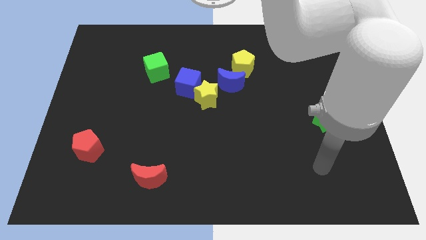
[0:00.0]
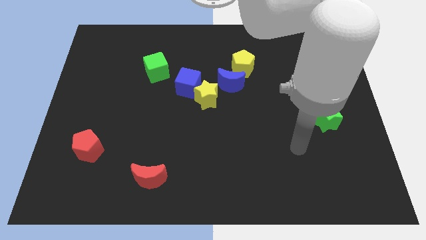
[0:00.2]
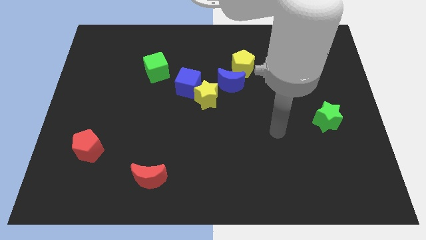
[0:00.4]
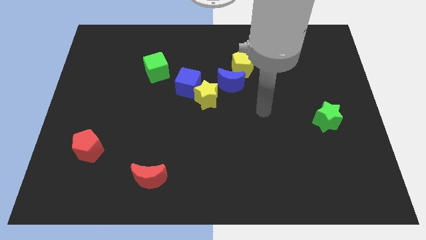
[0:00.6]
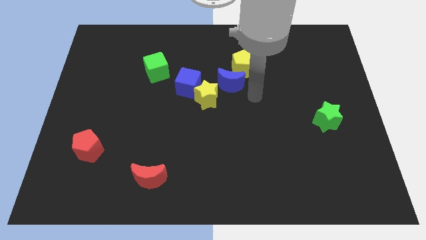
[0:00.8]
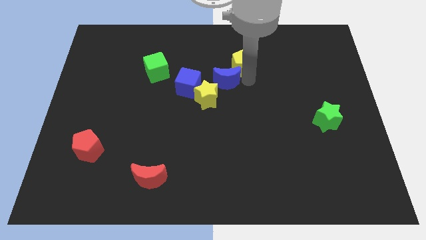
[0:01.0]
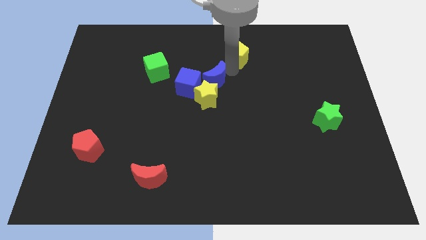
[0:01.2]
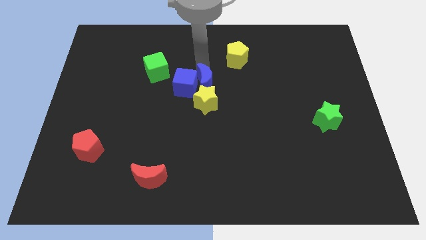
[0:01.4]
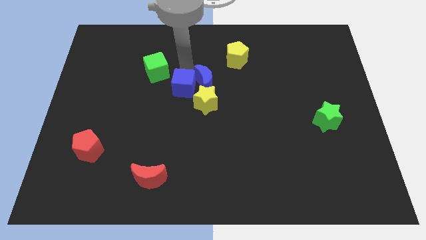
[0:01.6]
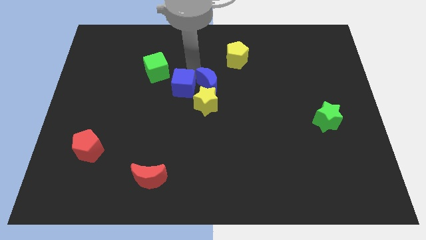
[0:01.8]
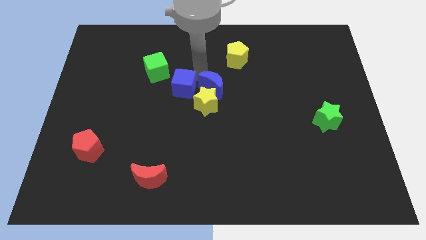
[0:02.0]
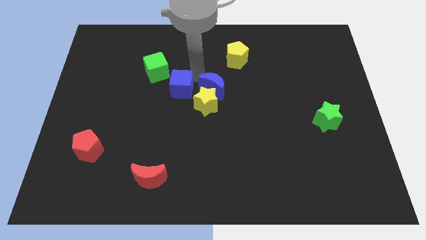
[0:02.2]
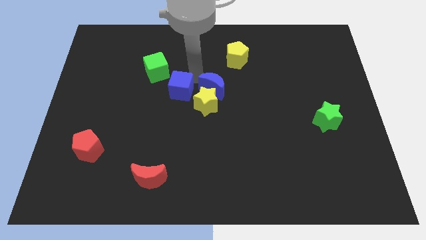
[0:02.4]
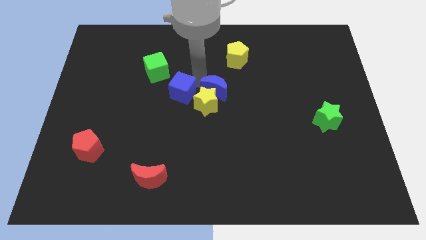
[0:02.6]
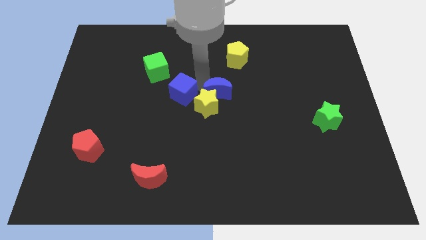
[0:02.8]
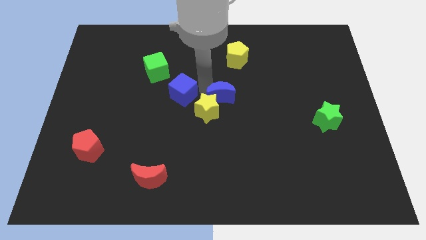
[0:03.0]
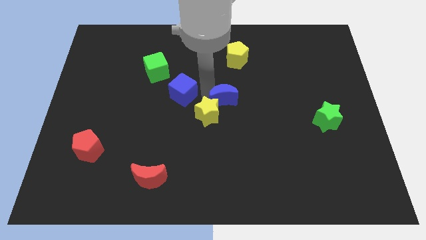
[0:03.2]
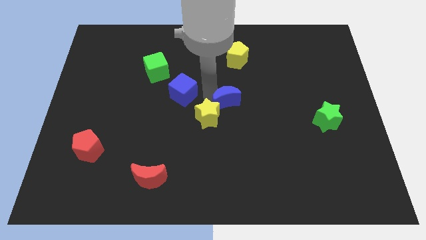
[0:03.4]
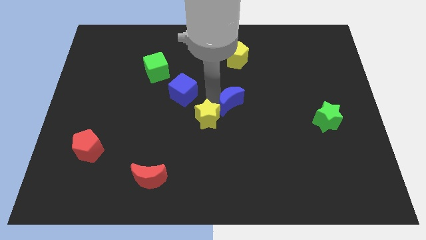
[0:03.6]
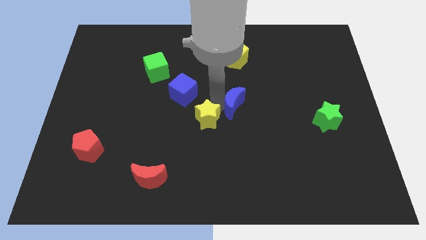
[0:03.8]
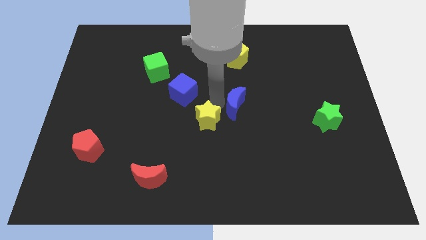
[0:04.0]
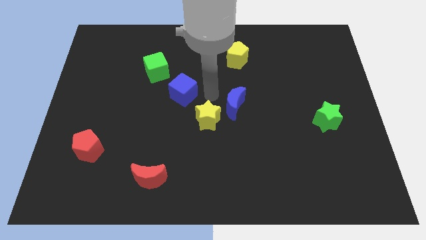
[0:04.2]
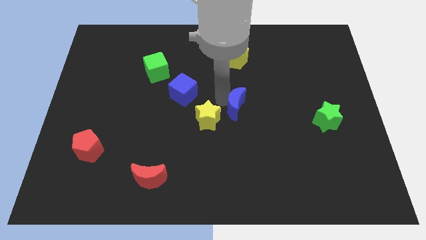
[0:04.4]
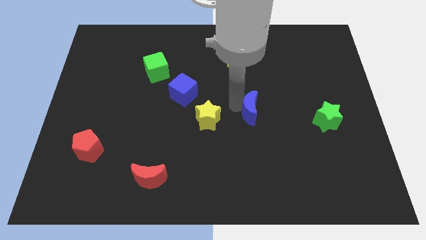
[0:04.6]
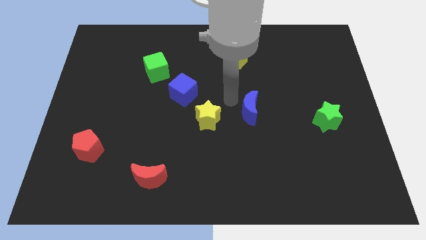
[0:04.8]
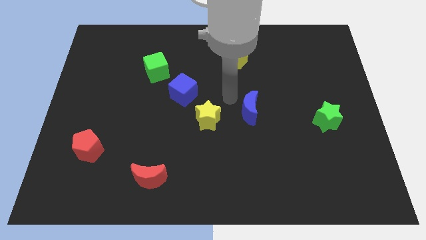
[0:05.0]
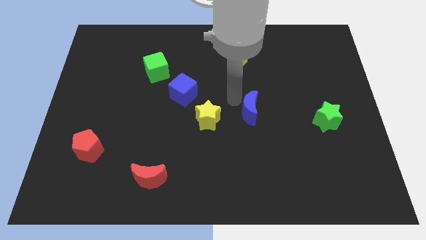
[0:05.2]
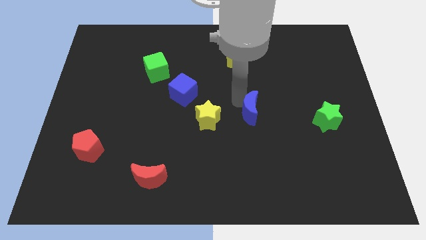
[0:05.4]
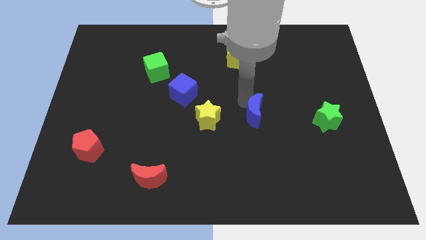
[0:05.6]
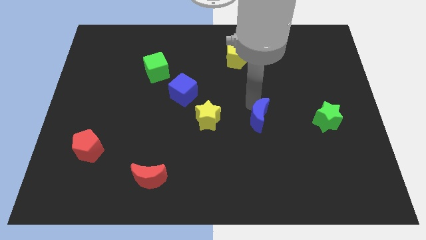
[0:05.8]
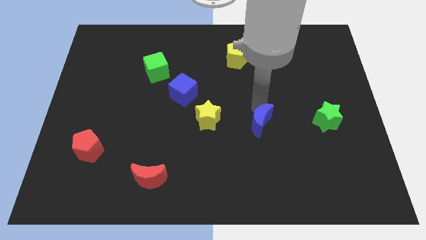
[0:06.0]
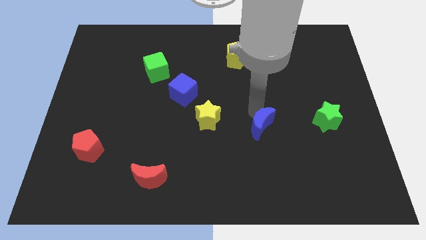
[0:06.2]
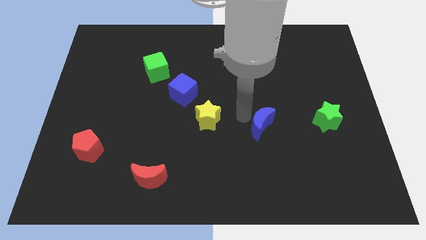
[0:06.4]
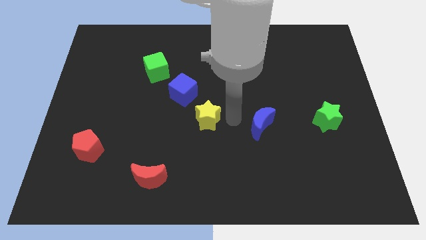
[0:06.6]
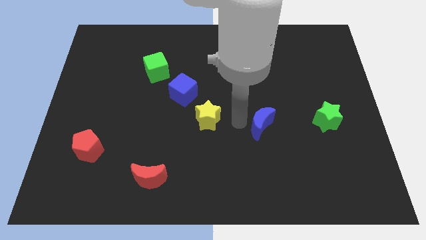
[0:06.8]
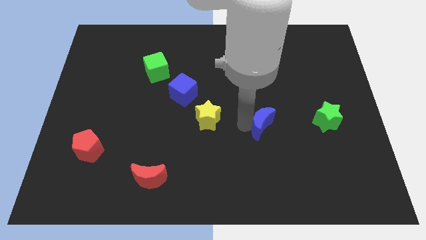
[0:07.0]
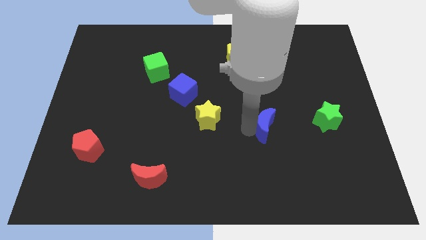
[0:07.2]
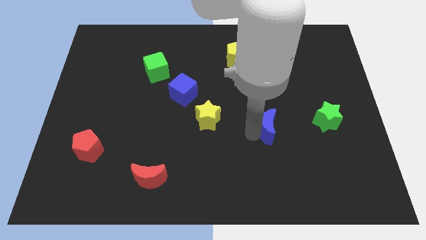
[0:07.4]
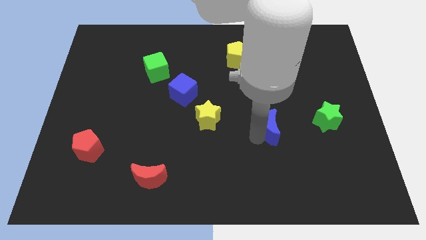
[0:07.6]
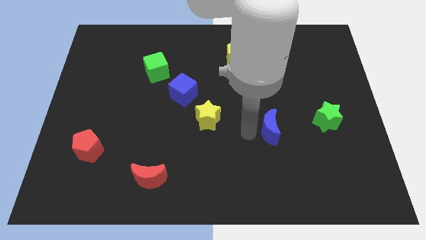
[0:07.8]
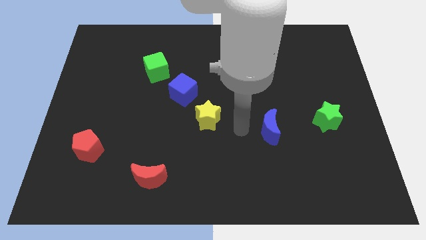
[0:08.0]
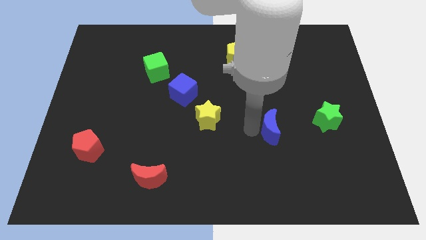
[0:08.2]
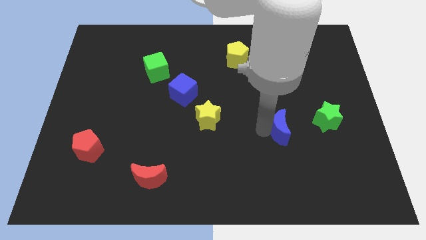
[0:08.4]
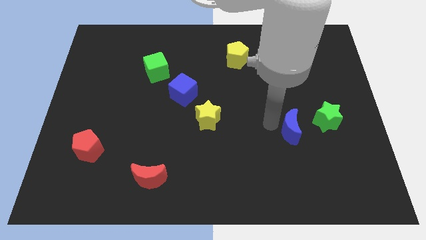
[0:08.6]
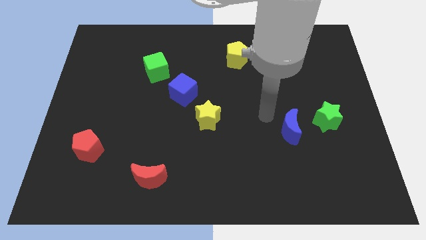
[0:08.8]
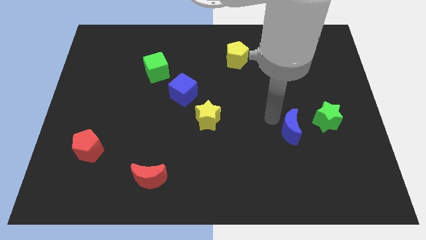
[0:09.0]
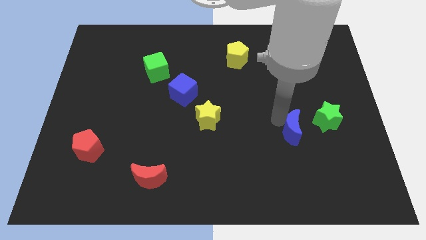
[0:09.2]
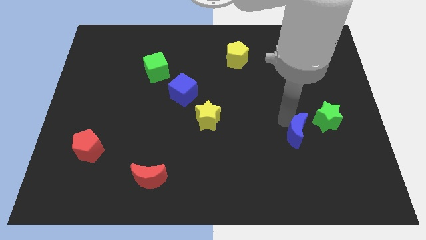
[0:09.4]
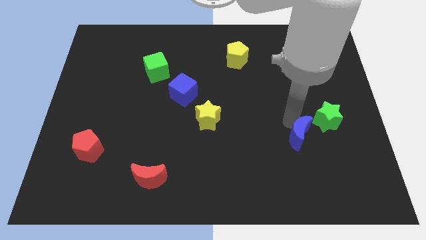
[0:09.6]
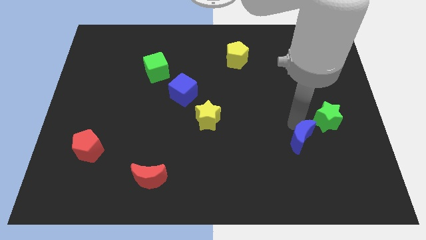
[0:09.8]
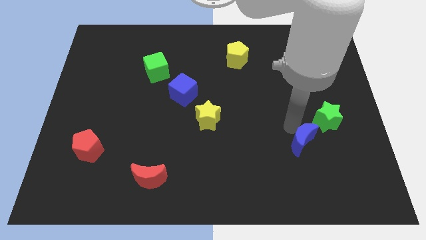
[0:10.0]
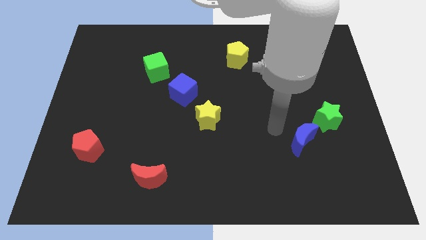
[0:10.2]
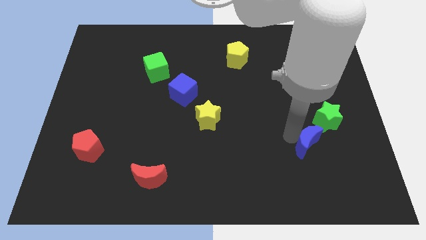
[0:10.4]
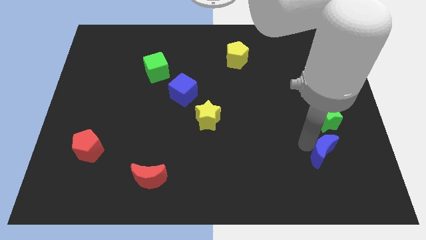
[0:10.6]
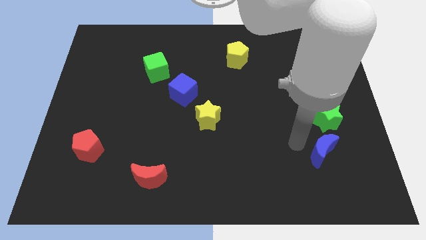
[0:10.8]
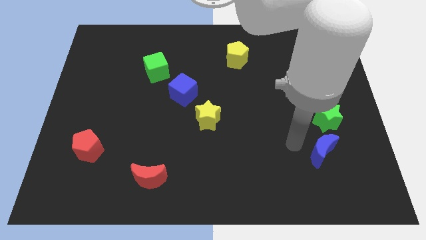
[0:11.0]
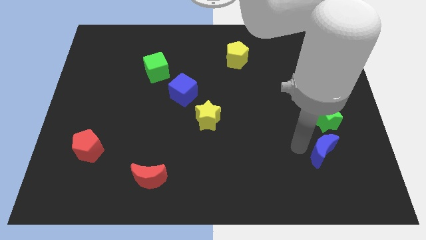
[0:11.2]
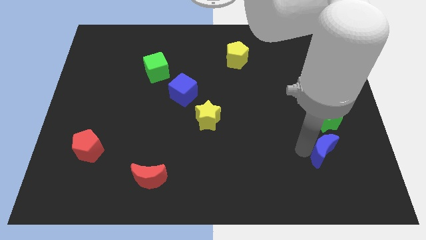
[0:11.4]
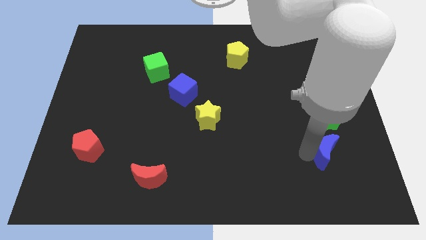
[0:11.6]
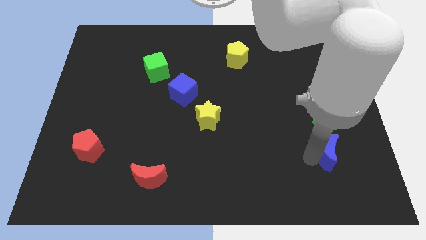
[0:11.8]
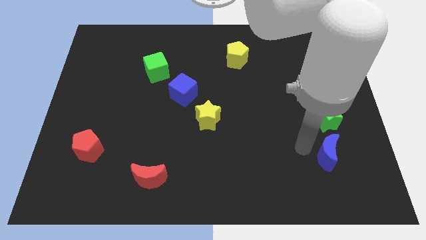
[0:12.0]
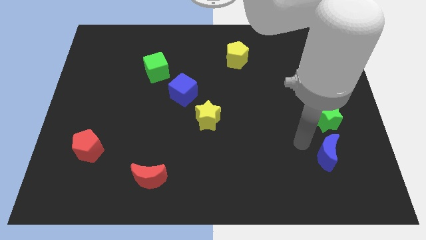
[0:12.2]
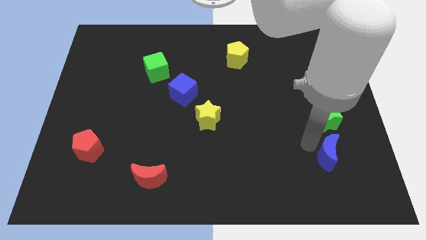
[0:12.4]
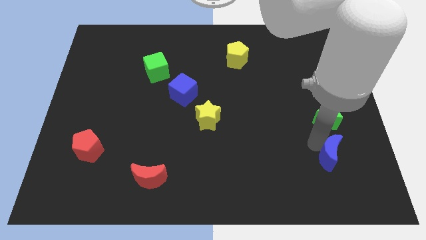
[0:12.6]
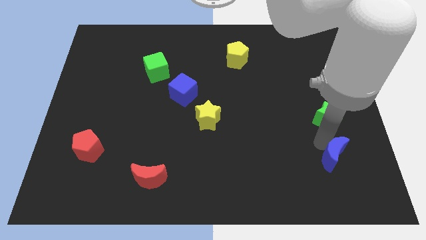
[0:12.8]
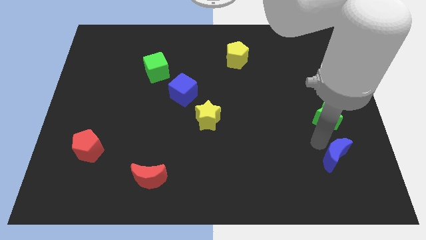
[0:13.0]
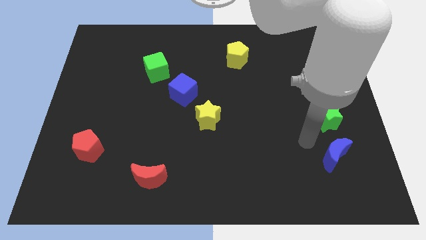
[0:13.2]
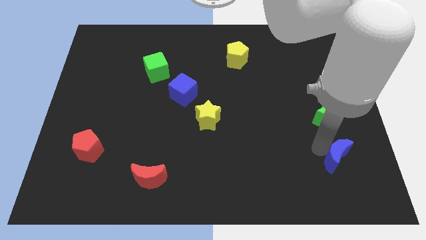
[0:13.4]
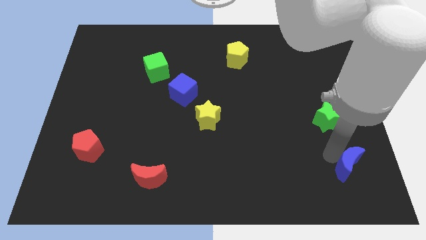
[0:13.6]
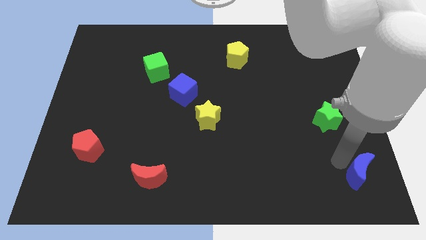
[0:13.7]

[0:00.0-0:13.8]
slide the blue moon to the bottom right corner
